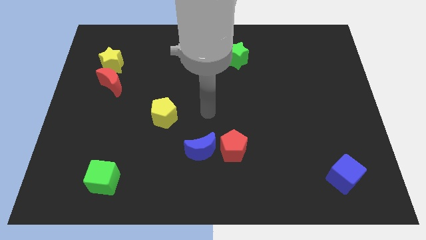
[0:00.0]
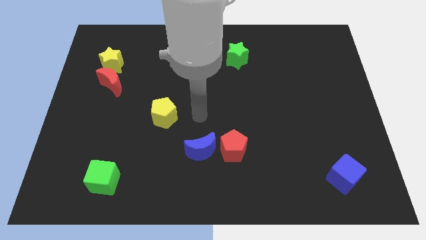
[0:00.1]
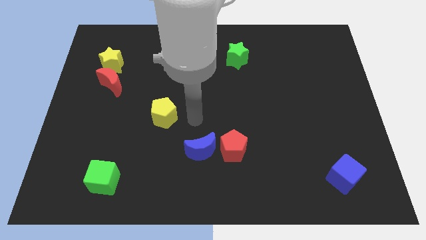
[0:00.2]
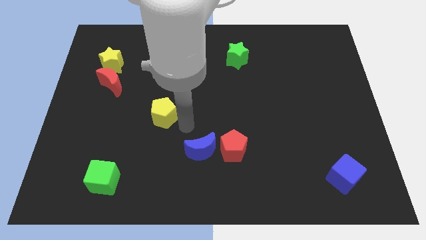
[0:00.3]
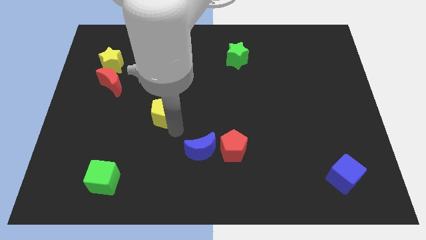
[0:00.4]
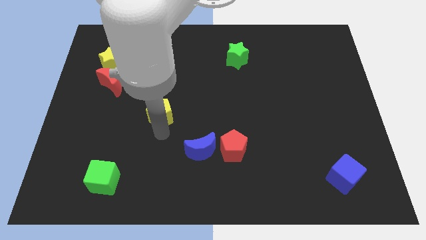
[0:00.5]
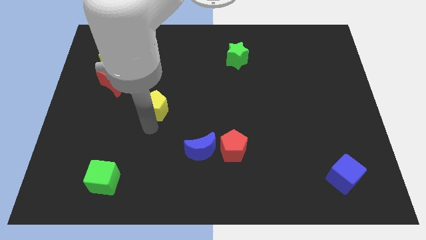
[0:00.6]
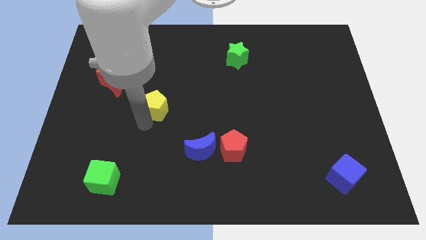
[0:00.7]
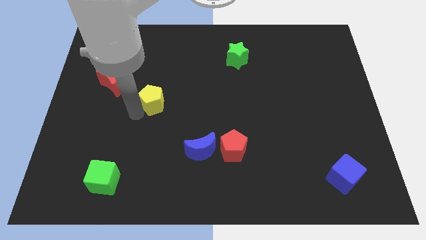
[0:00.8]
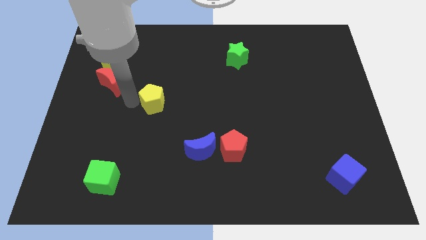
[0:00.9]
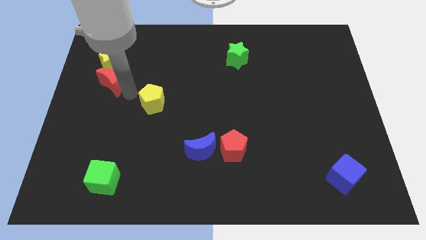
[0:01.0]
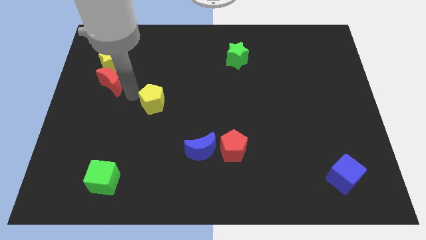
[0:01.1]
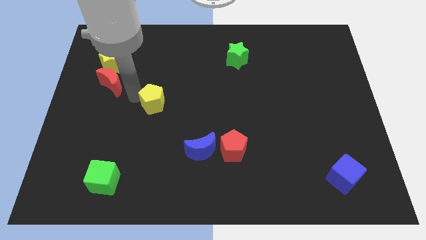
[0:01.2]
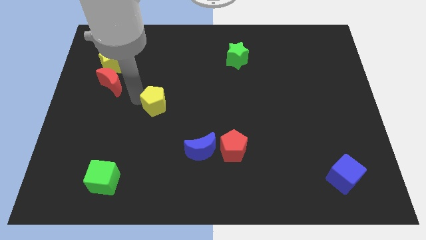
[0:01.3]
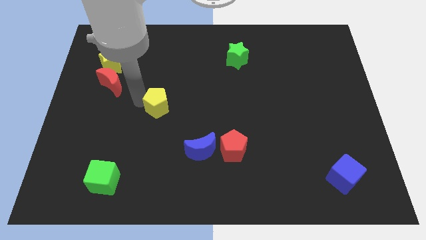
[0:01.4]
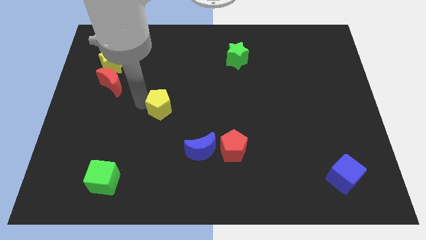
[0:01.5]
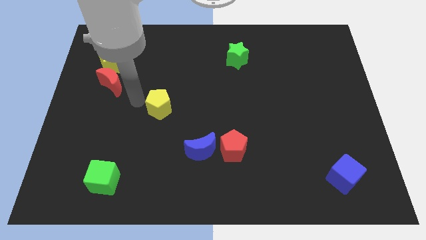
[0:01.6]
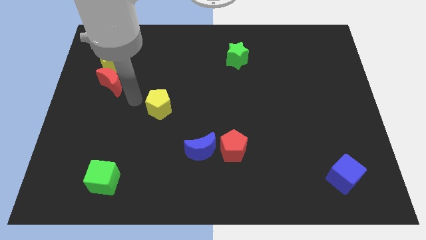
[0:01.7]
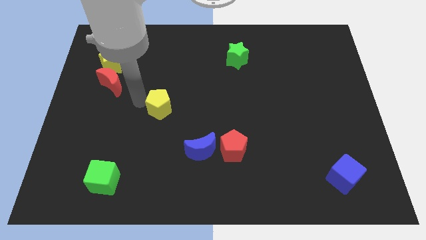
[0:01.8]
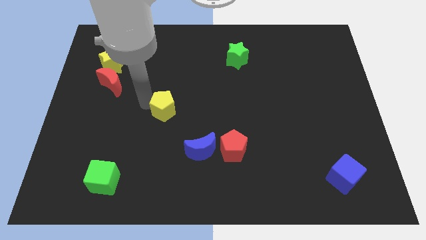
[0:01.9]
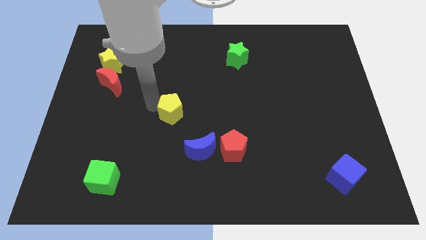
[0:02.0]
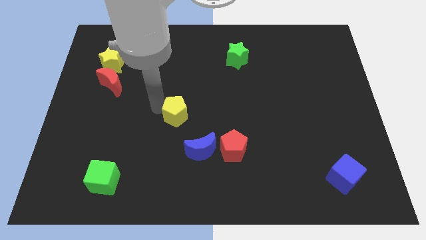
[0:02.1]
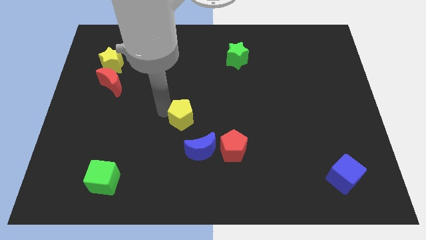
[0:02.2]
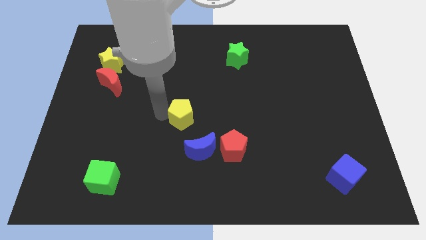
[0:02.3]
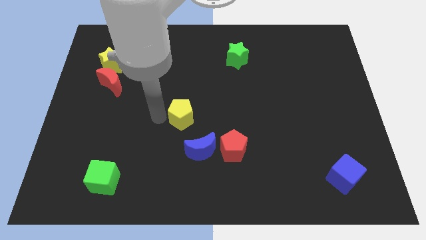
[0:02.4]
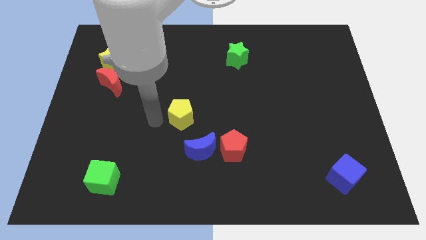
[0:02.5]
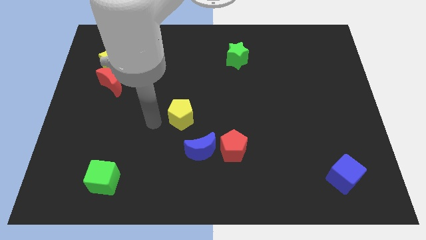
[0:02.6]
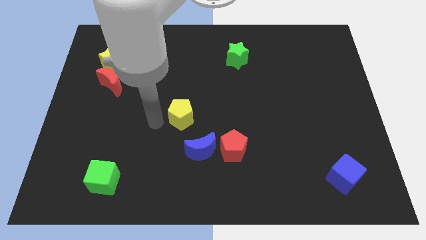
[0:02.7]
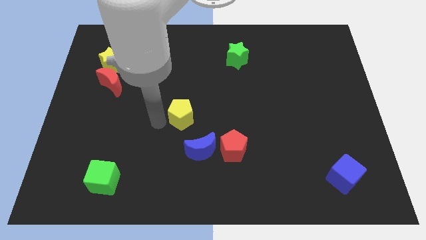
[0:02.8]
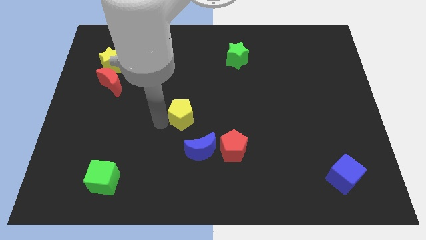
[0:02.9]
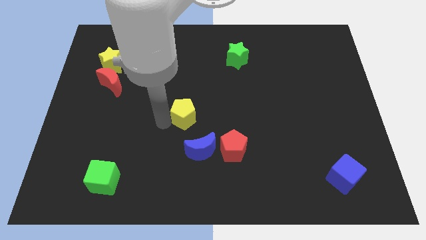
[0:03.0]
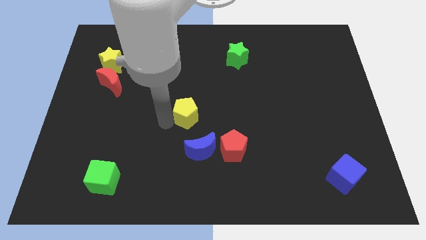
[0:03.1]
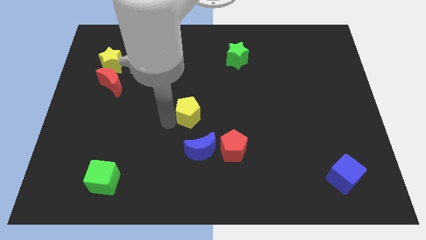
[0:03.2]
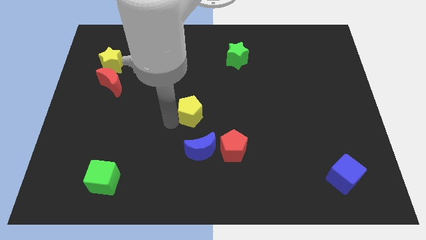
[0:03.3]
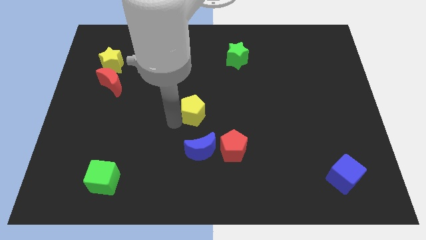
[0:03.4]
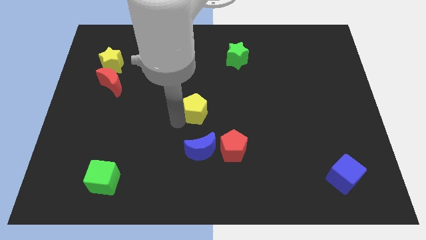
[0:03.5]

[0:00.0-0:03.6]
slightly push the yellow pentagon right

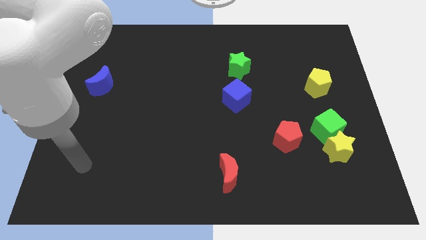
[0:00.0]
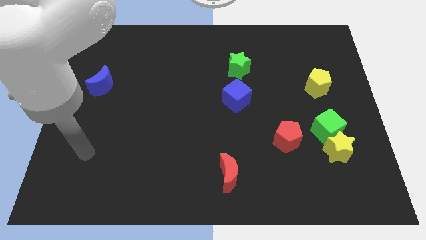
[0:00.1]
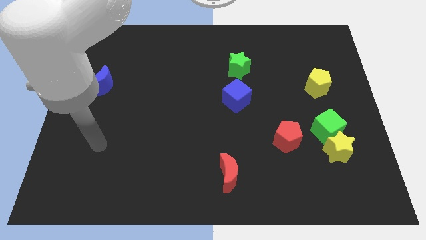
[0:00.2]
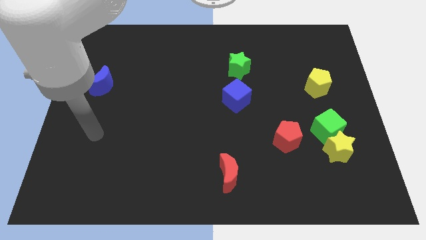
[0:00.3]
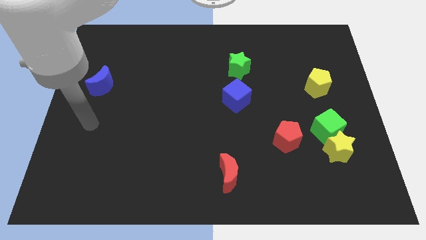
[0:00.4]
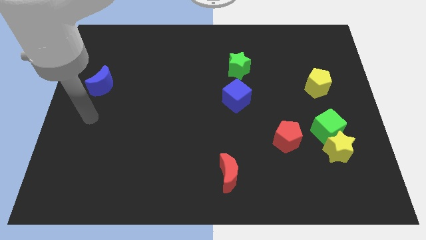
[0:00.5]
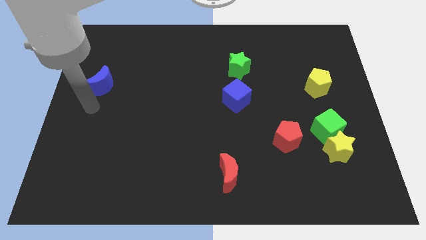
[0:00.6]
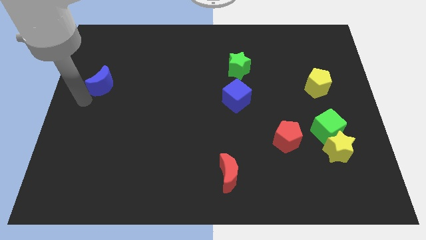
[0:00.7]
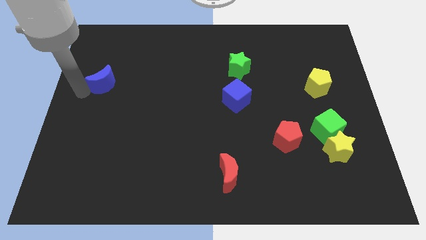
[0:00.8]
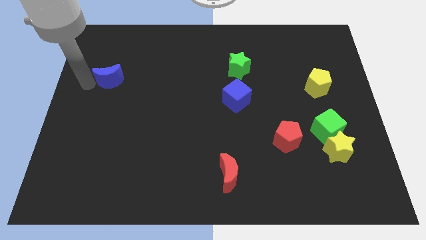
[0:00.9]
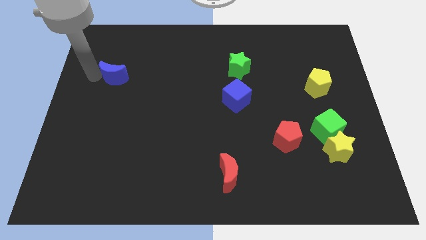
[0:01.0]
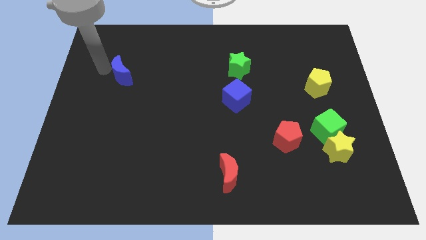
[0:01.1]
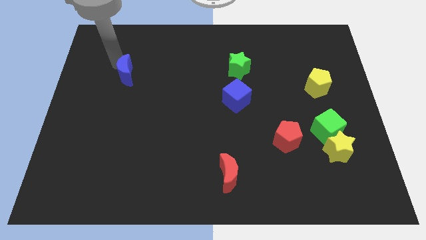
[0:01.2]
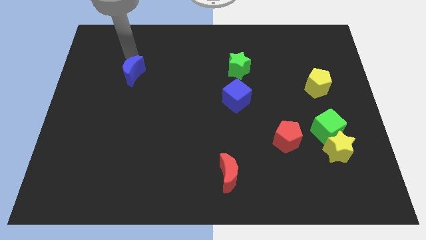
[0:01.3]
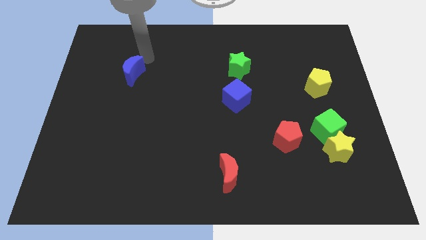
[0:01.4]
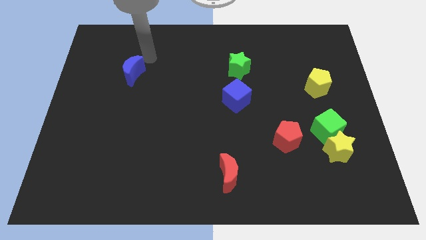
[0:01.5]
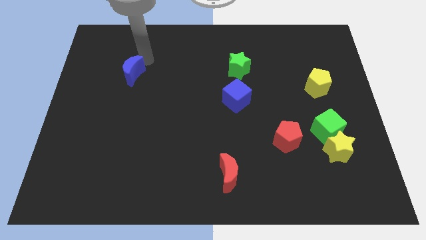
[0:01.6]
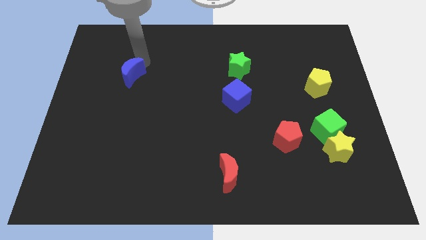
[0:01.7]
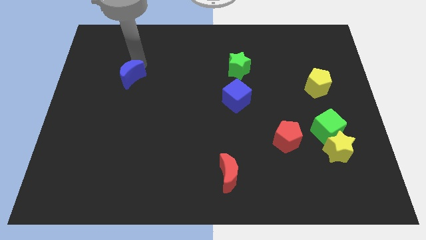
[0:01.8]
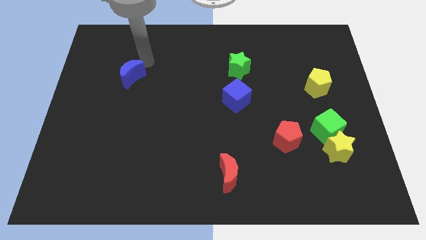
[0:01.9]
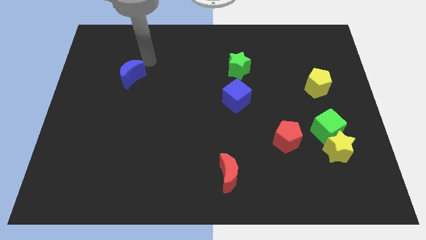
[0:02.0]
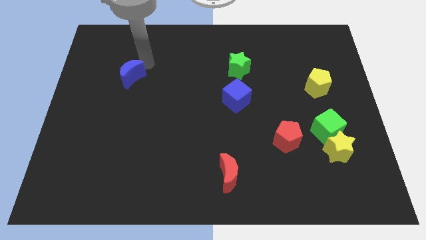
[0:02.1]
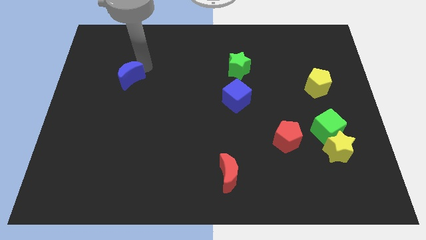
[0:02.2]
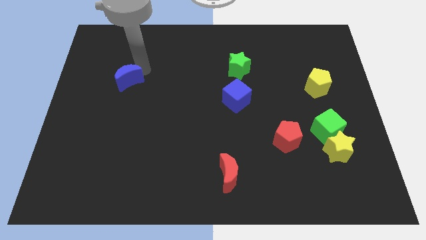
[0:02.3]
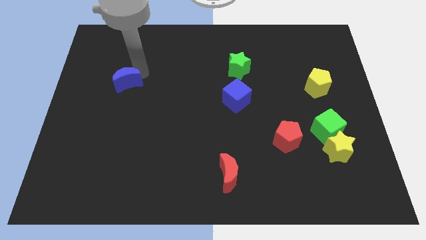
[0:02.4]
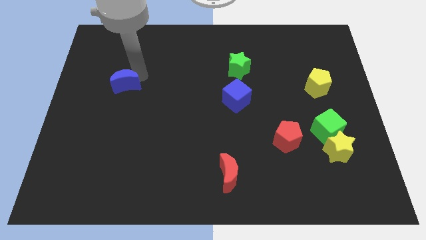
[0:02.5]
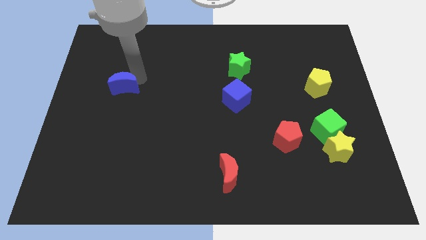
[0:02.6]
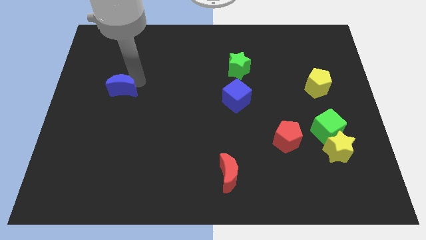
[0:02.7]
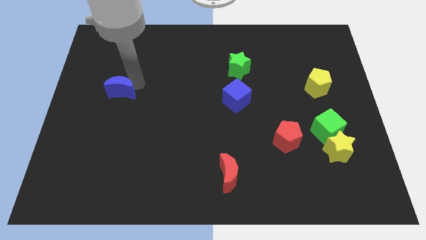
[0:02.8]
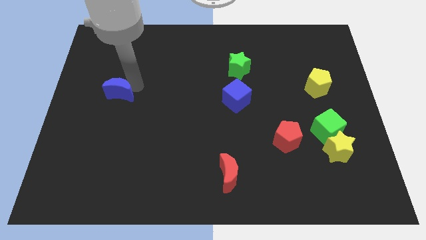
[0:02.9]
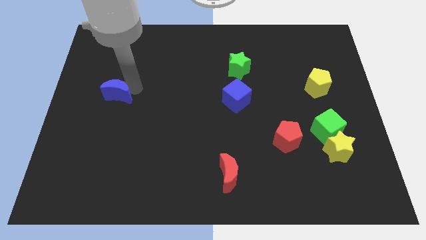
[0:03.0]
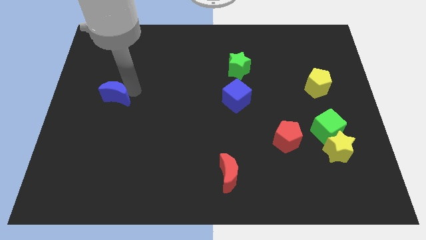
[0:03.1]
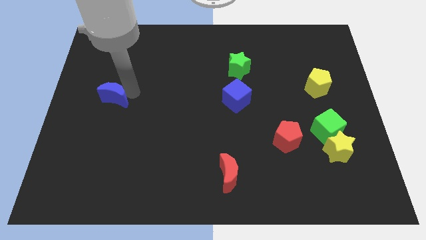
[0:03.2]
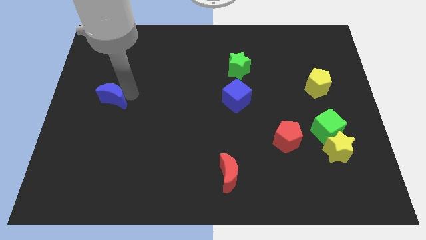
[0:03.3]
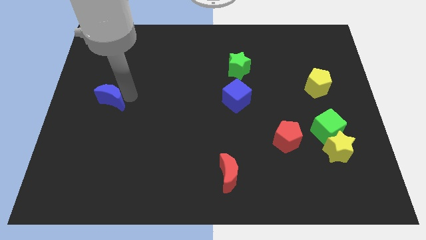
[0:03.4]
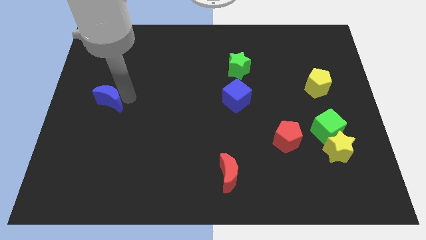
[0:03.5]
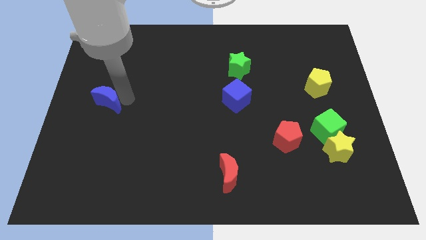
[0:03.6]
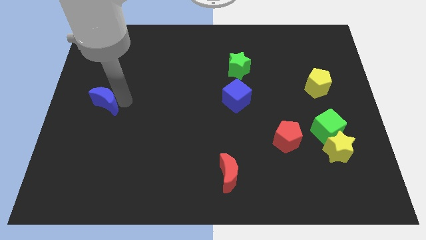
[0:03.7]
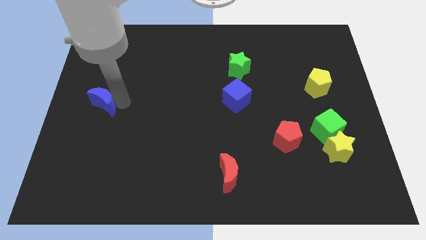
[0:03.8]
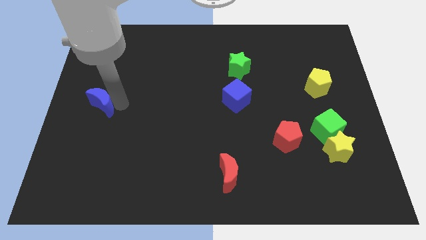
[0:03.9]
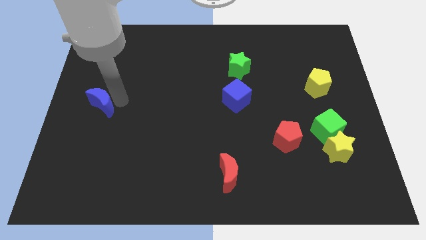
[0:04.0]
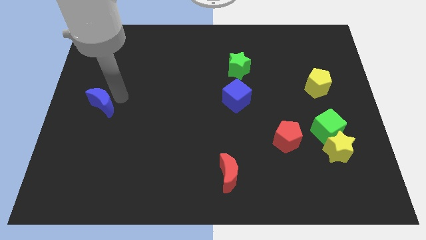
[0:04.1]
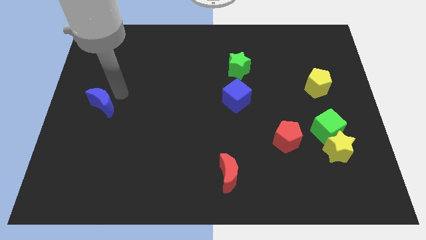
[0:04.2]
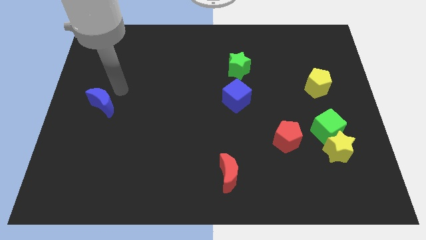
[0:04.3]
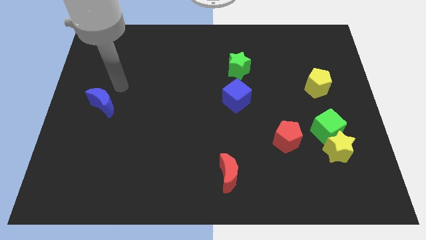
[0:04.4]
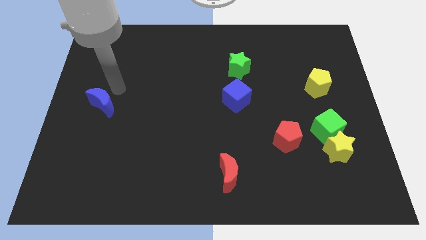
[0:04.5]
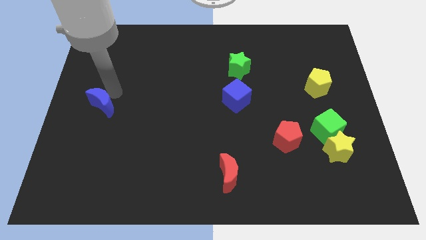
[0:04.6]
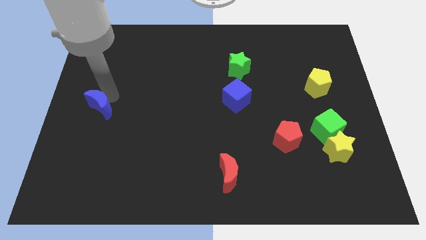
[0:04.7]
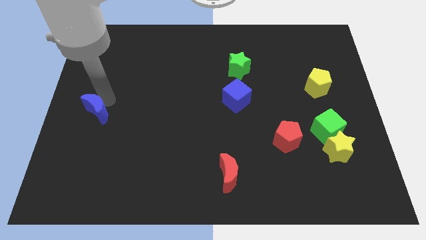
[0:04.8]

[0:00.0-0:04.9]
slightly push the blue moon downwards
